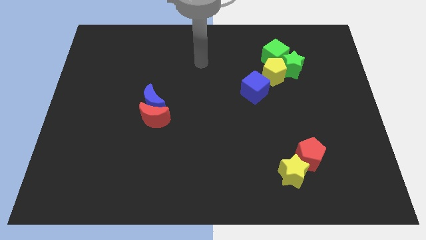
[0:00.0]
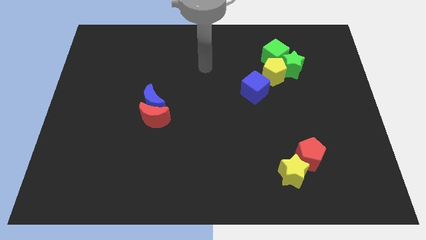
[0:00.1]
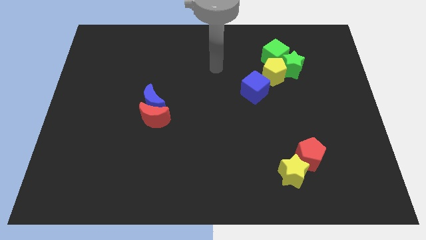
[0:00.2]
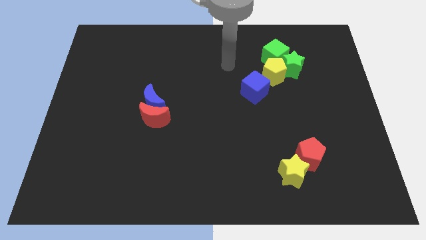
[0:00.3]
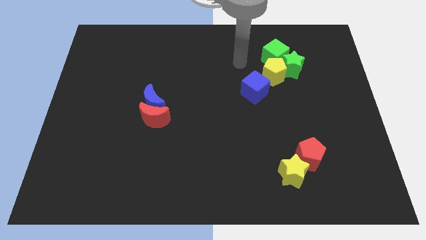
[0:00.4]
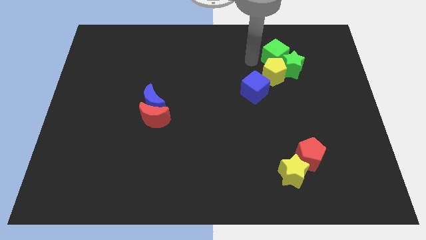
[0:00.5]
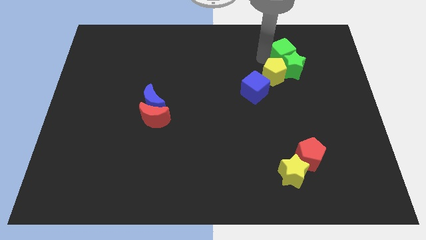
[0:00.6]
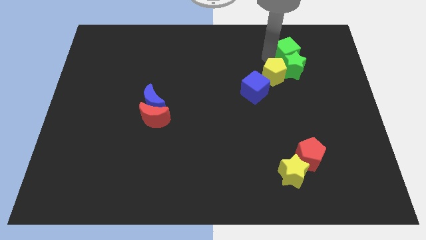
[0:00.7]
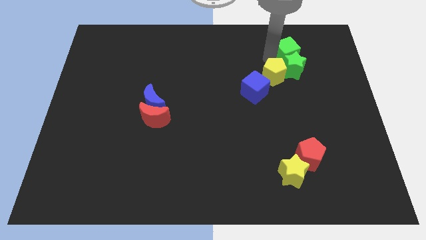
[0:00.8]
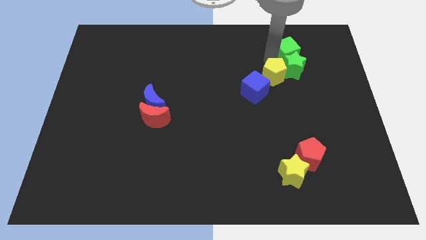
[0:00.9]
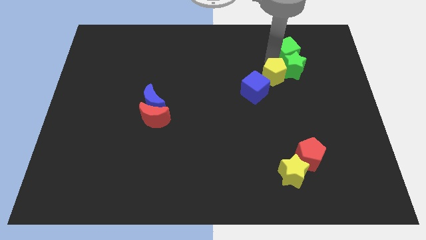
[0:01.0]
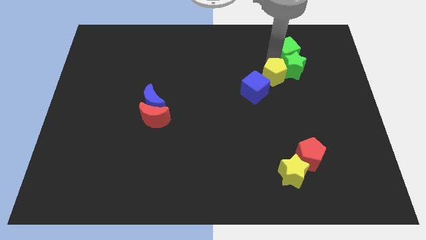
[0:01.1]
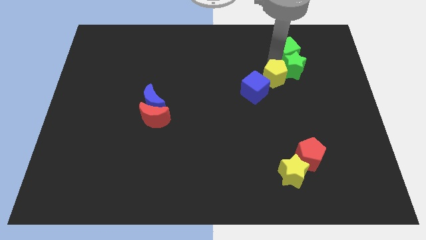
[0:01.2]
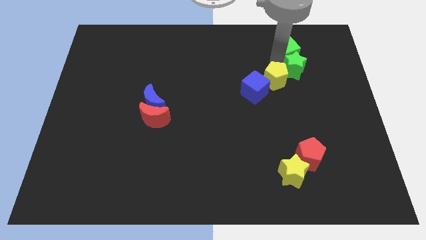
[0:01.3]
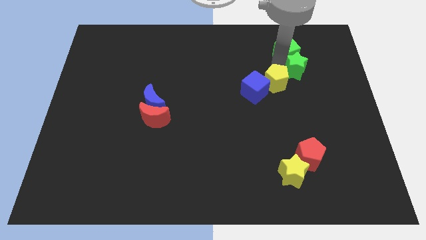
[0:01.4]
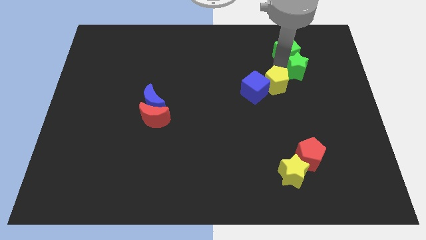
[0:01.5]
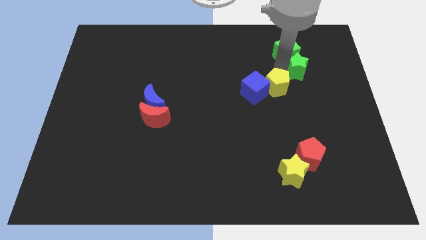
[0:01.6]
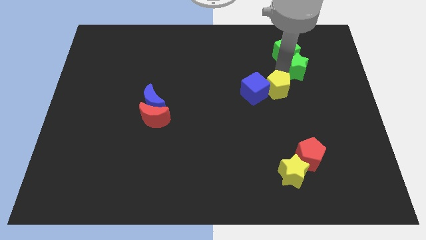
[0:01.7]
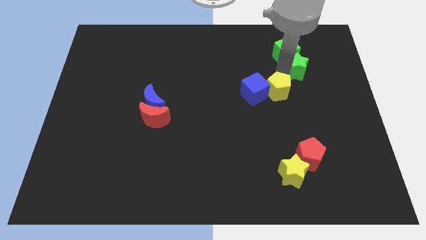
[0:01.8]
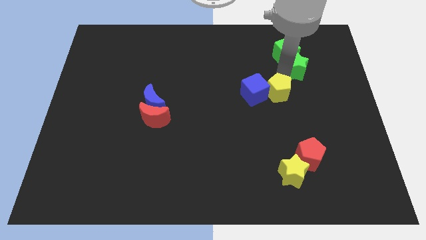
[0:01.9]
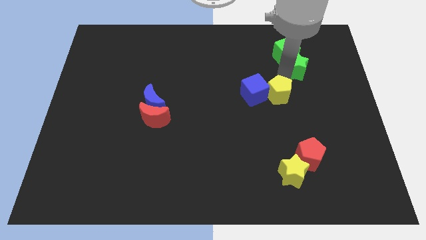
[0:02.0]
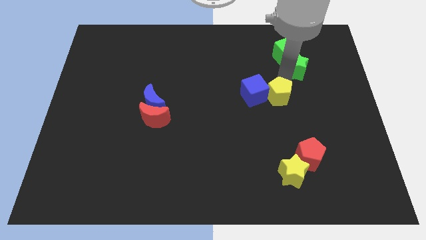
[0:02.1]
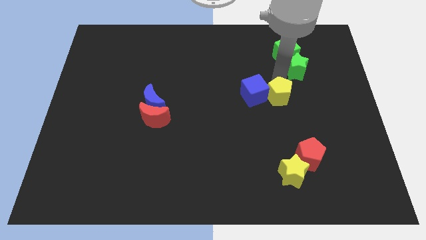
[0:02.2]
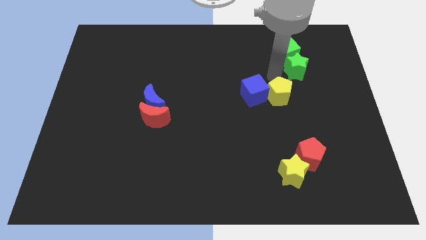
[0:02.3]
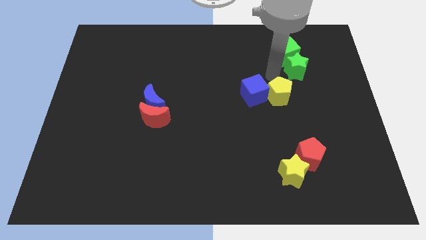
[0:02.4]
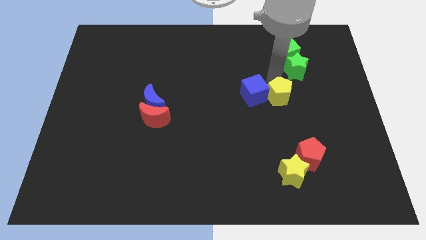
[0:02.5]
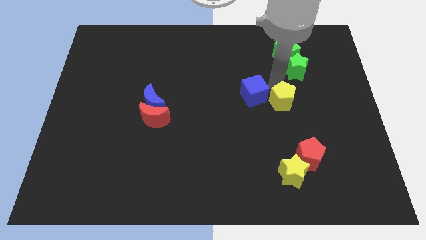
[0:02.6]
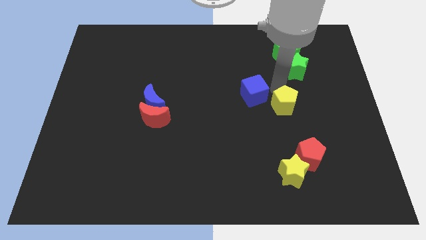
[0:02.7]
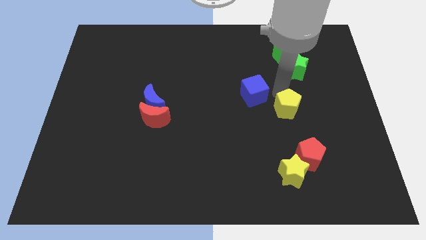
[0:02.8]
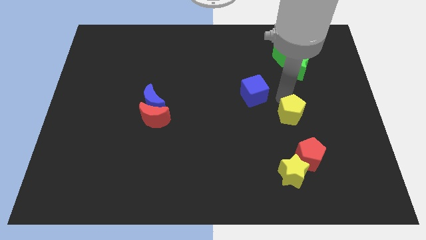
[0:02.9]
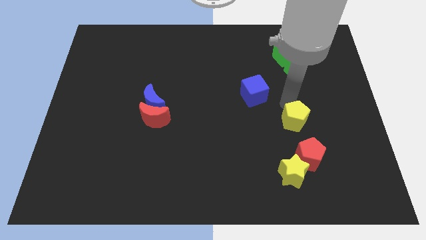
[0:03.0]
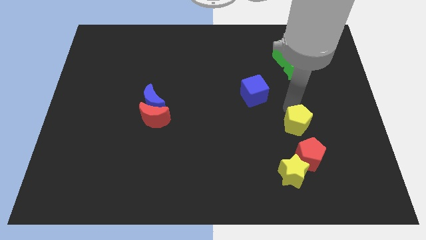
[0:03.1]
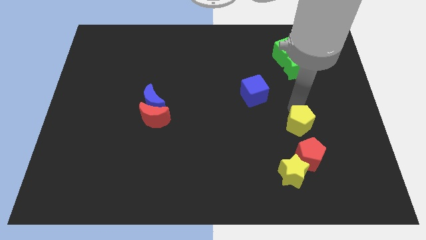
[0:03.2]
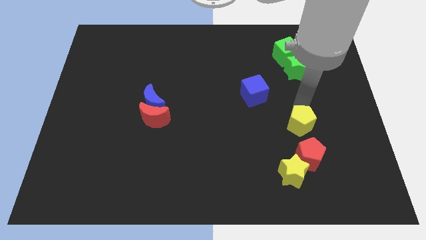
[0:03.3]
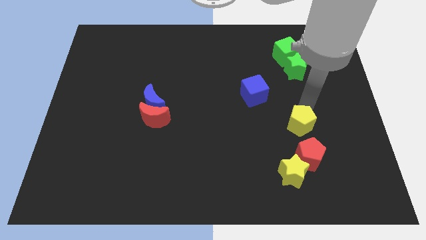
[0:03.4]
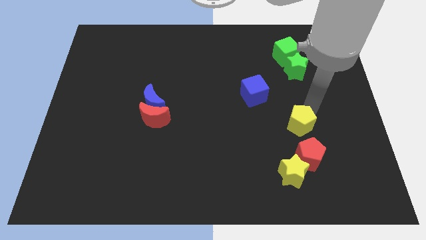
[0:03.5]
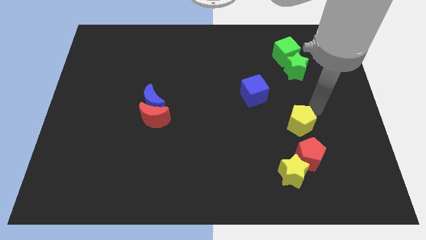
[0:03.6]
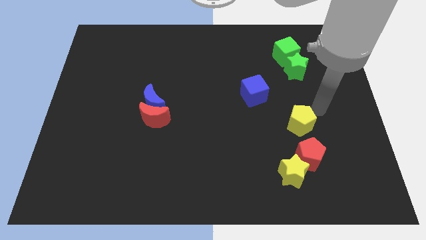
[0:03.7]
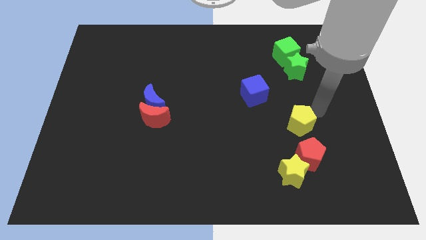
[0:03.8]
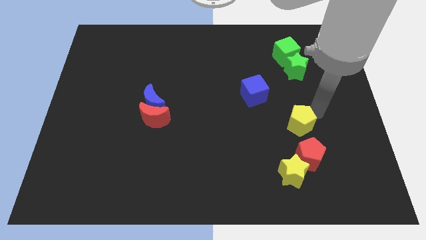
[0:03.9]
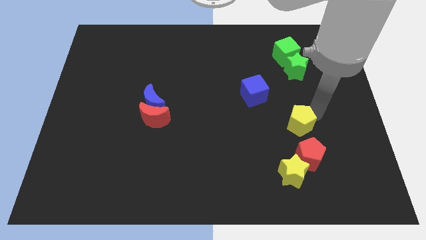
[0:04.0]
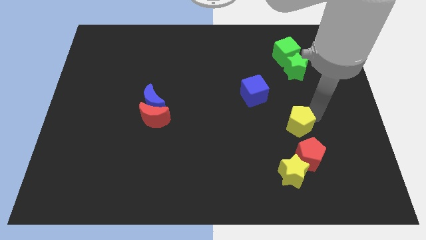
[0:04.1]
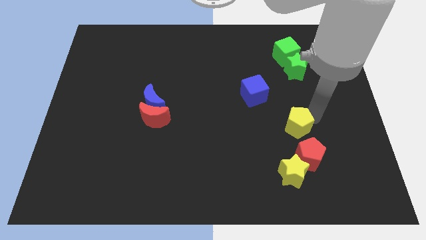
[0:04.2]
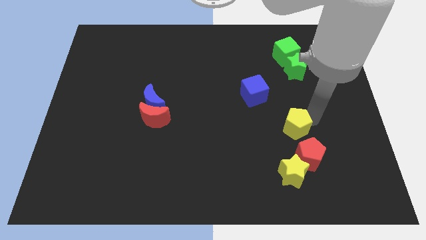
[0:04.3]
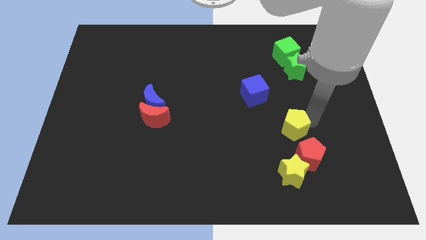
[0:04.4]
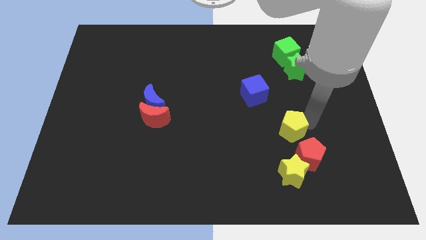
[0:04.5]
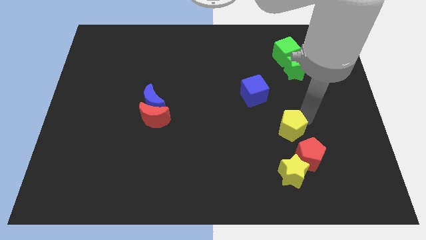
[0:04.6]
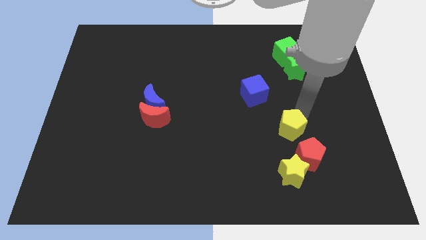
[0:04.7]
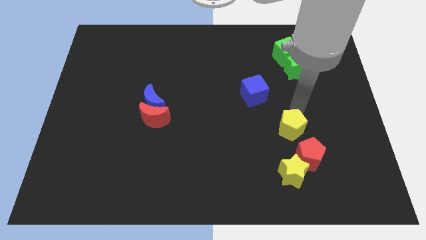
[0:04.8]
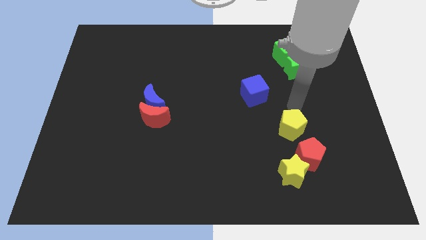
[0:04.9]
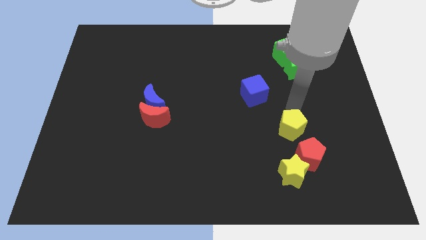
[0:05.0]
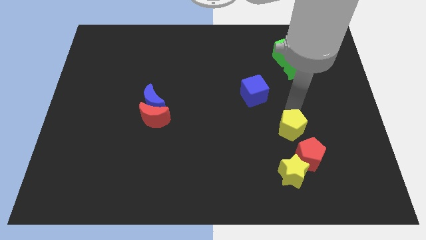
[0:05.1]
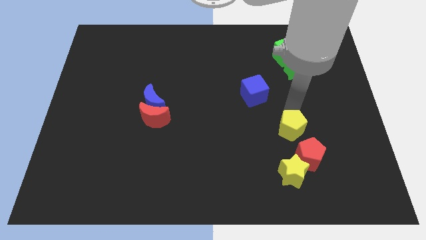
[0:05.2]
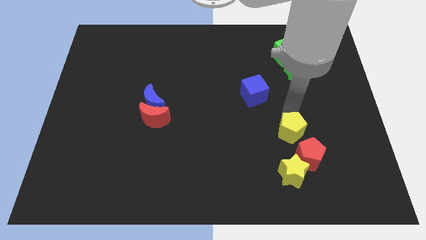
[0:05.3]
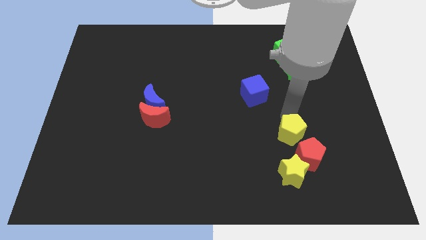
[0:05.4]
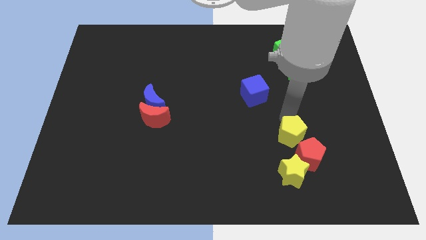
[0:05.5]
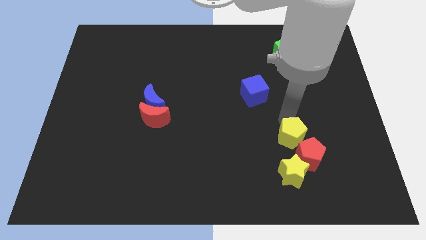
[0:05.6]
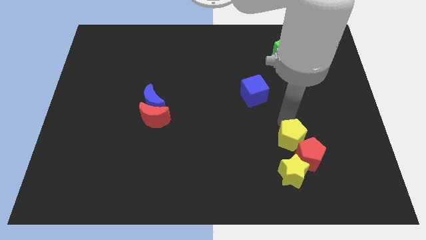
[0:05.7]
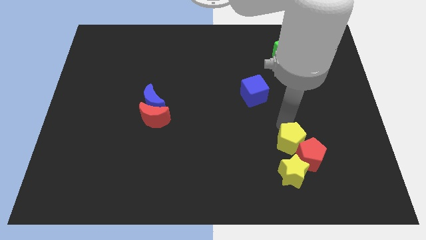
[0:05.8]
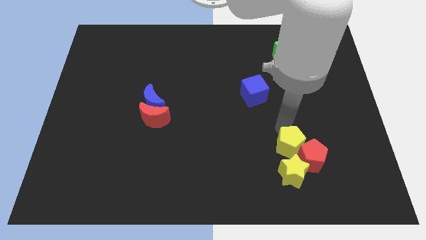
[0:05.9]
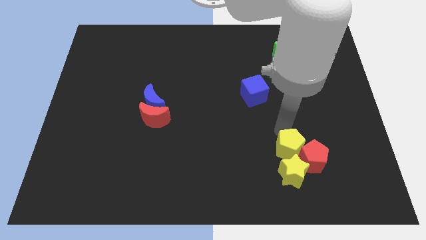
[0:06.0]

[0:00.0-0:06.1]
put the yellow pentagon next to the yellow star

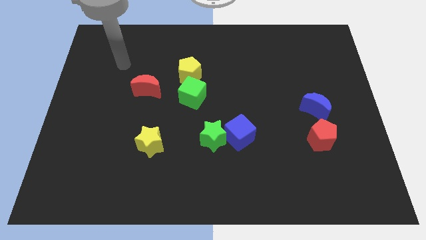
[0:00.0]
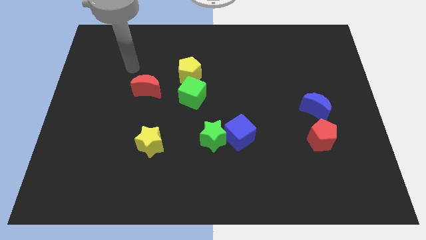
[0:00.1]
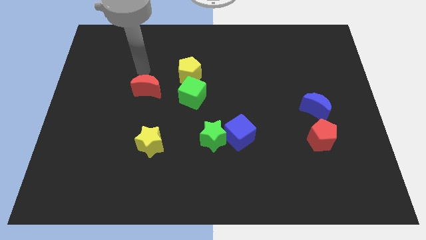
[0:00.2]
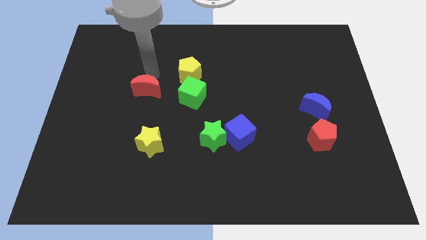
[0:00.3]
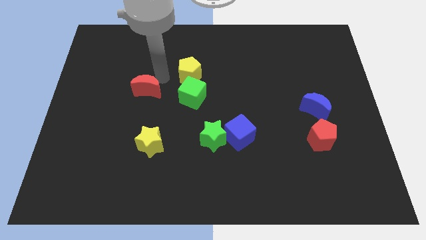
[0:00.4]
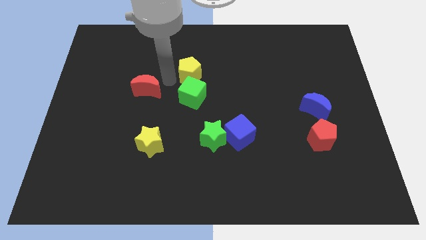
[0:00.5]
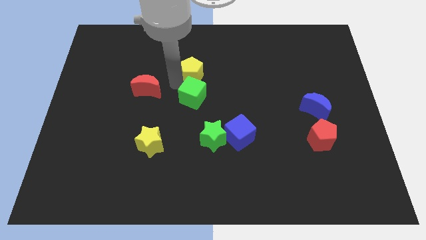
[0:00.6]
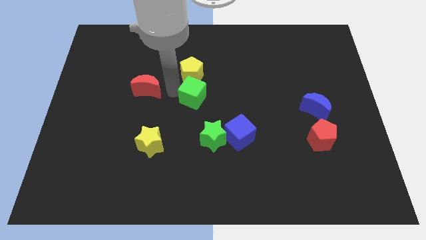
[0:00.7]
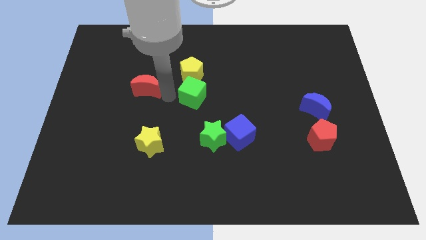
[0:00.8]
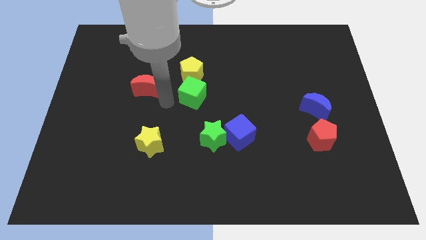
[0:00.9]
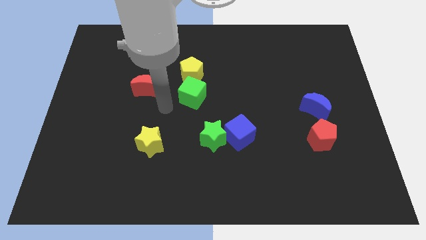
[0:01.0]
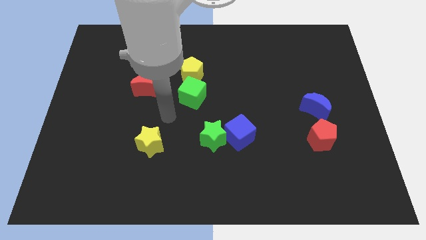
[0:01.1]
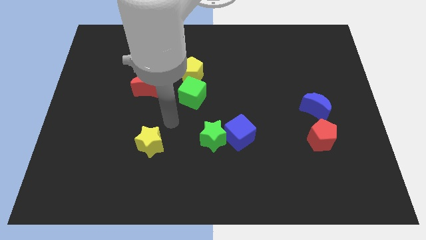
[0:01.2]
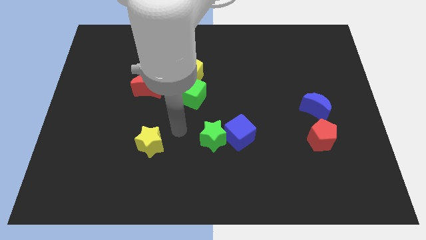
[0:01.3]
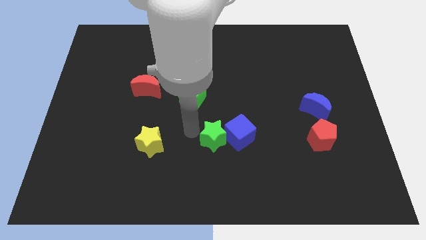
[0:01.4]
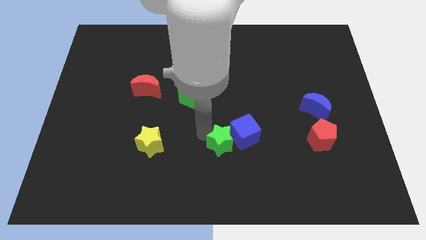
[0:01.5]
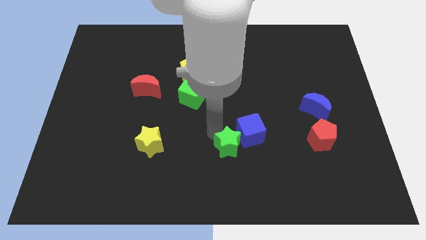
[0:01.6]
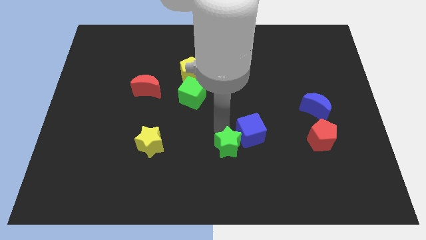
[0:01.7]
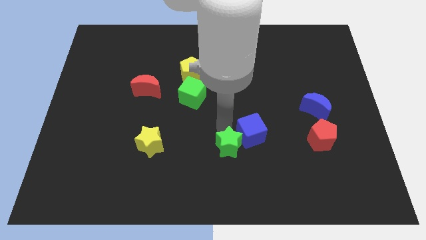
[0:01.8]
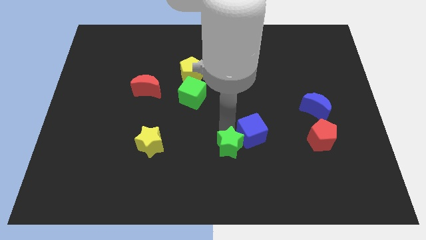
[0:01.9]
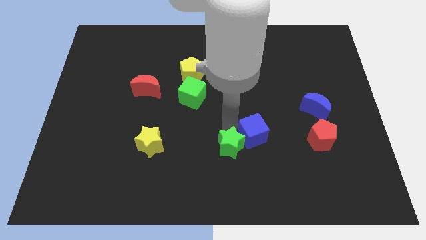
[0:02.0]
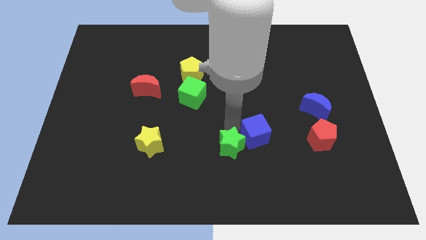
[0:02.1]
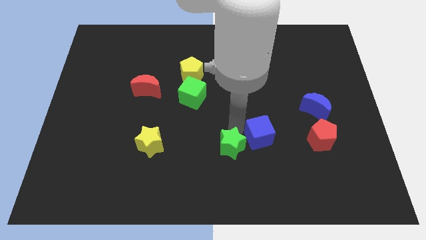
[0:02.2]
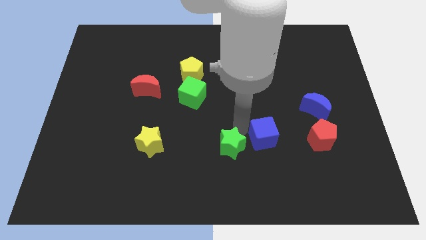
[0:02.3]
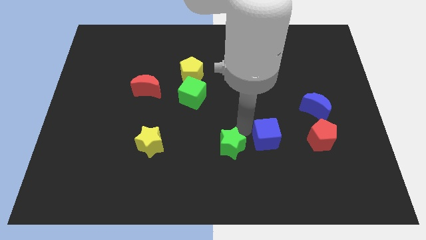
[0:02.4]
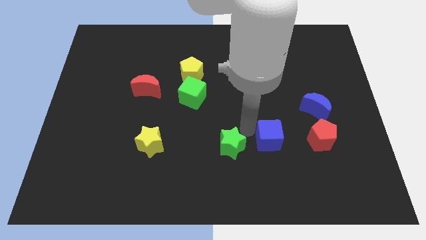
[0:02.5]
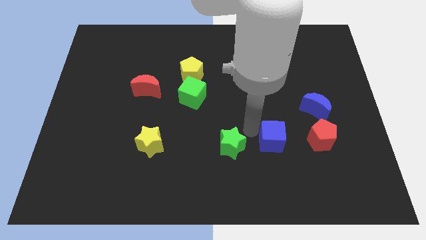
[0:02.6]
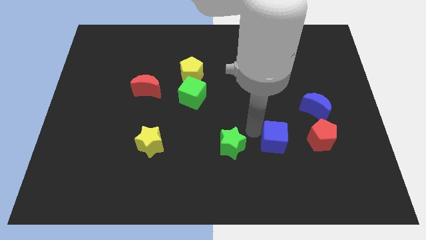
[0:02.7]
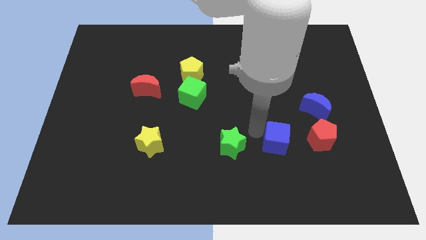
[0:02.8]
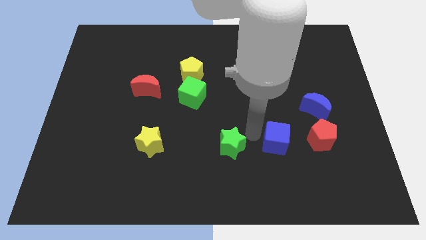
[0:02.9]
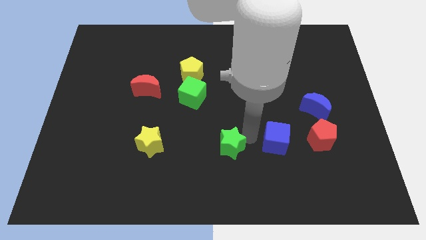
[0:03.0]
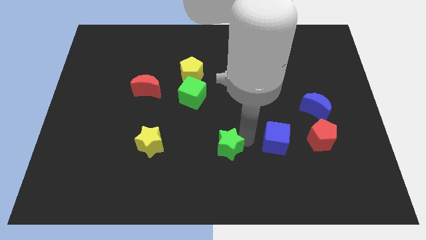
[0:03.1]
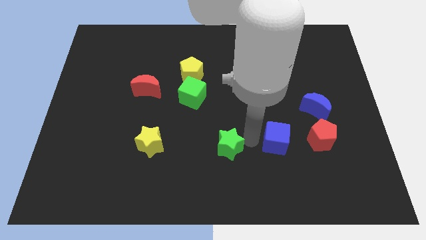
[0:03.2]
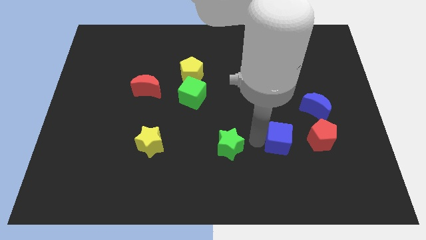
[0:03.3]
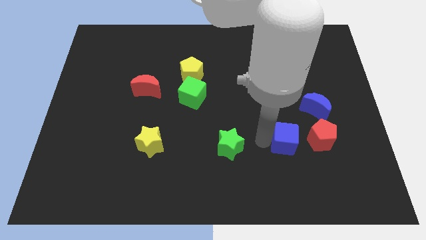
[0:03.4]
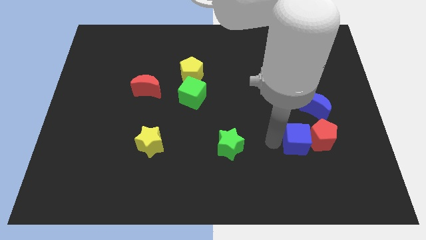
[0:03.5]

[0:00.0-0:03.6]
put the blue cube next to the red pentagon
